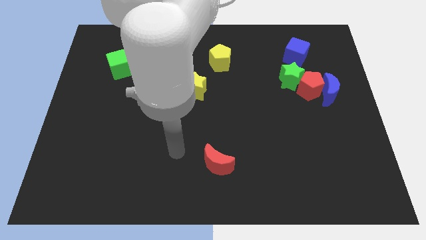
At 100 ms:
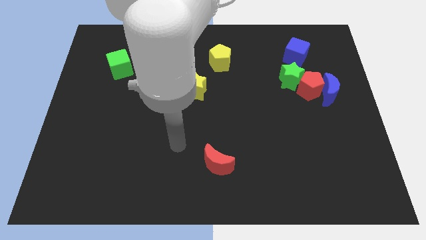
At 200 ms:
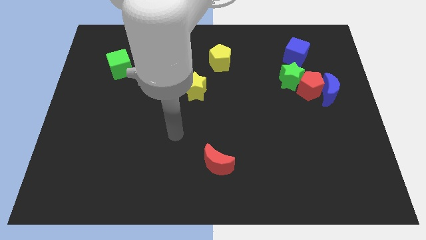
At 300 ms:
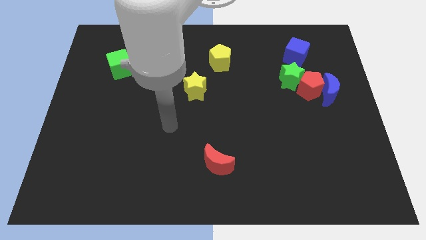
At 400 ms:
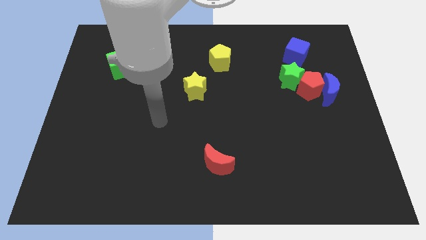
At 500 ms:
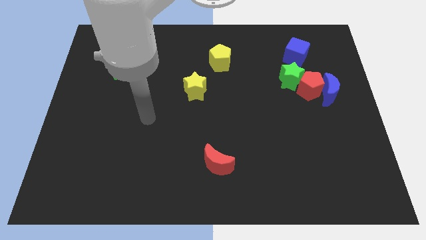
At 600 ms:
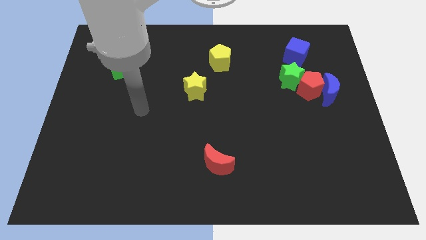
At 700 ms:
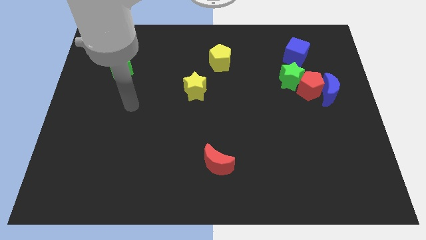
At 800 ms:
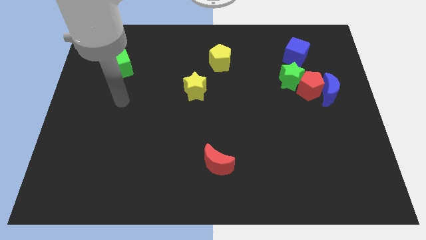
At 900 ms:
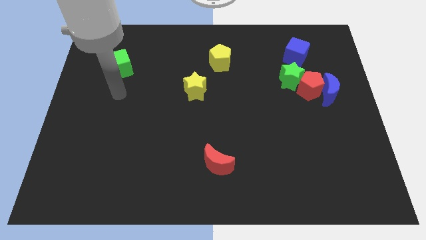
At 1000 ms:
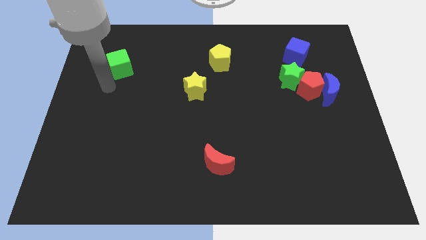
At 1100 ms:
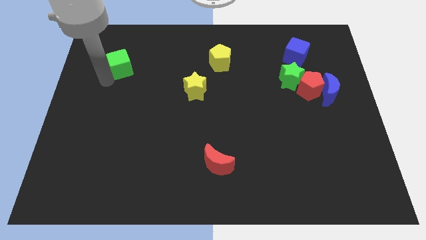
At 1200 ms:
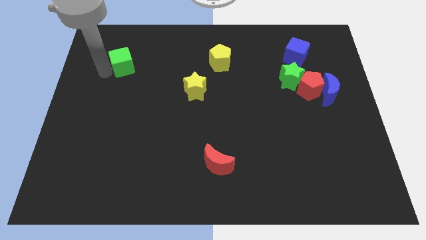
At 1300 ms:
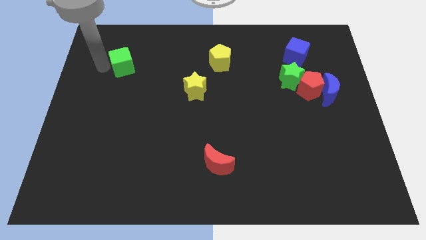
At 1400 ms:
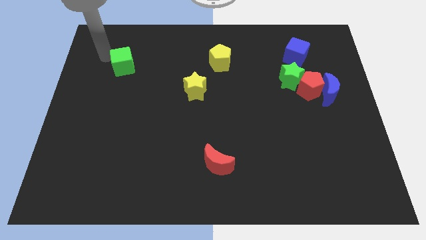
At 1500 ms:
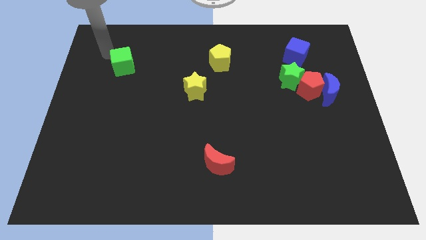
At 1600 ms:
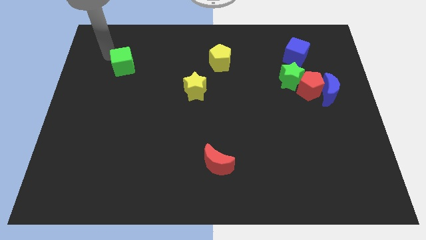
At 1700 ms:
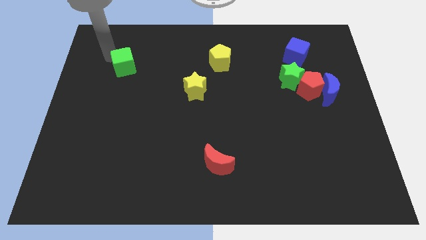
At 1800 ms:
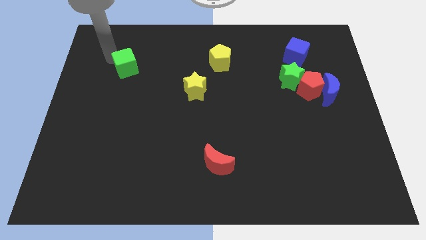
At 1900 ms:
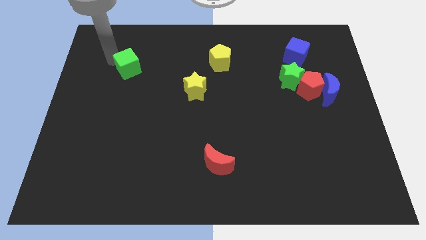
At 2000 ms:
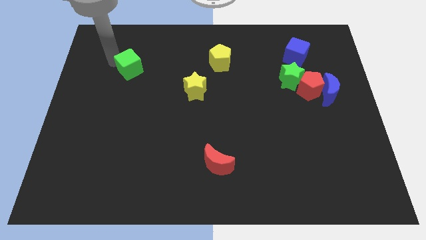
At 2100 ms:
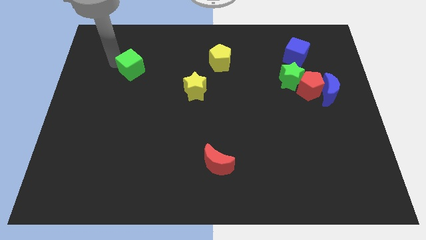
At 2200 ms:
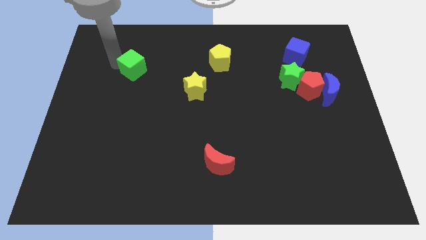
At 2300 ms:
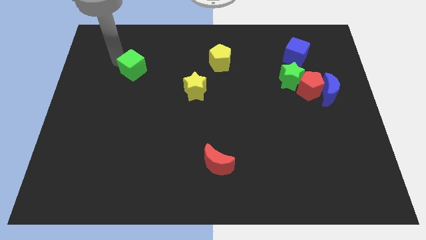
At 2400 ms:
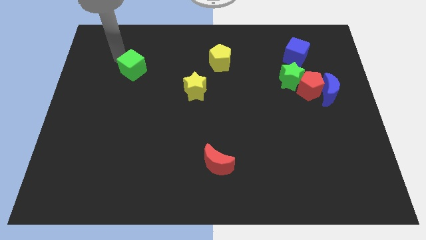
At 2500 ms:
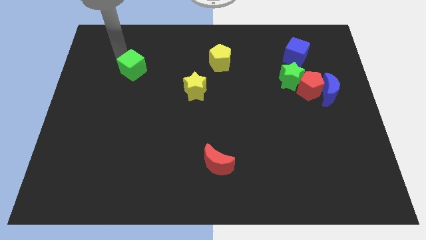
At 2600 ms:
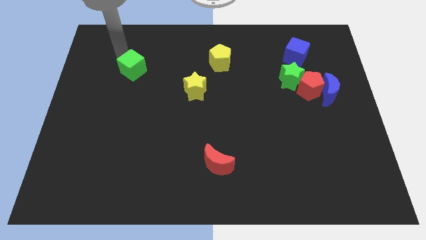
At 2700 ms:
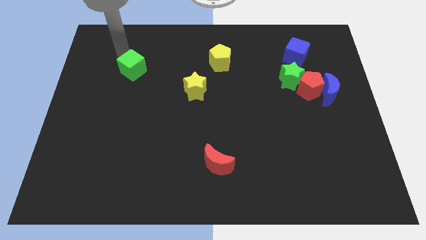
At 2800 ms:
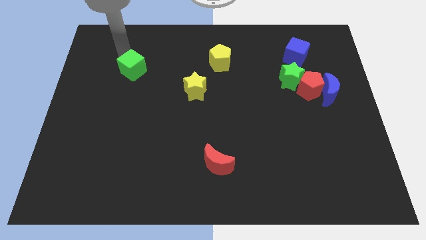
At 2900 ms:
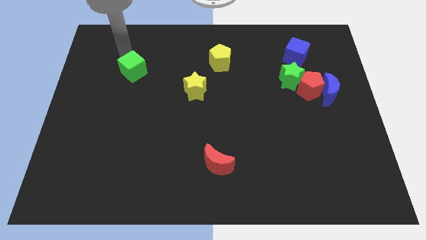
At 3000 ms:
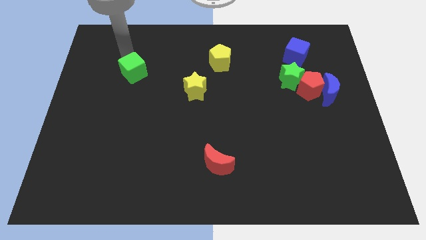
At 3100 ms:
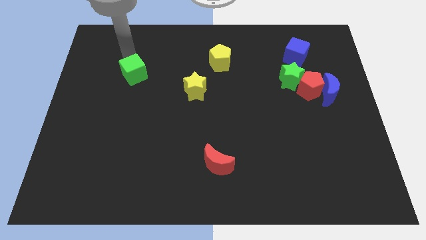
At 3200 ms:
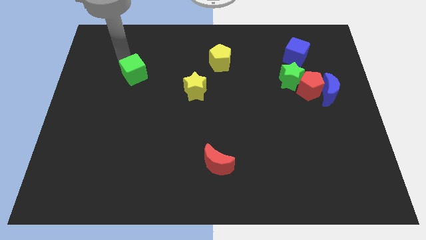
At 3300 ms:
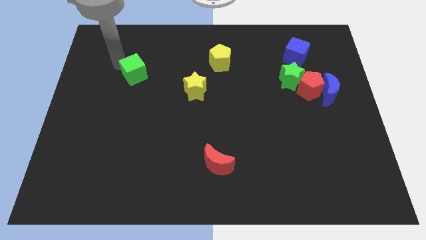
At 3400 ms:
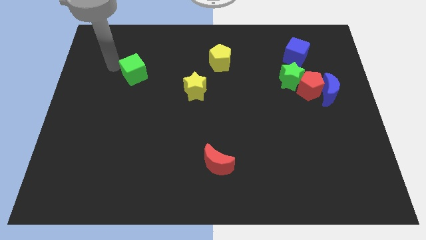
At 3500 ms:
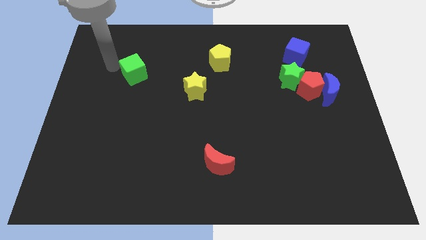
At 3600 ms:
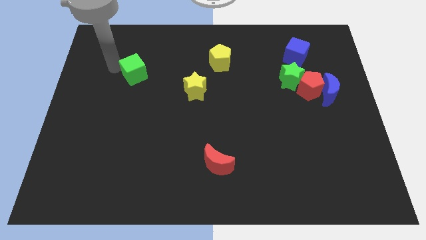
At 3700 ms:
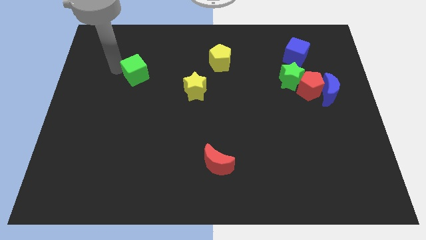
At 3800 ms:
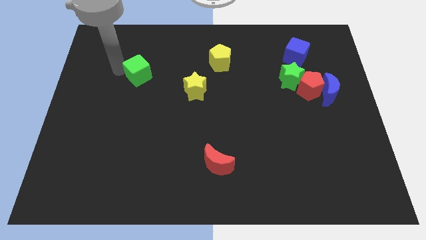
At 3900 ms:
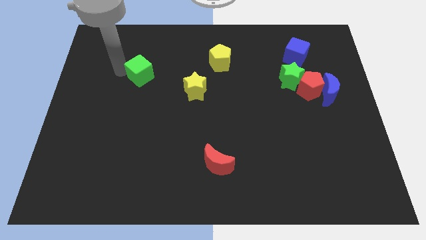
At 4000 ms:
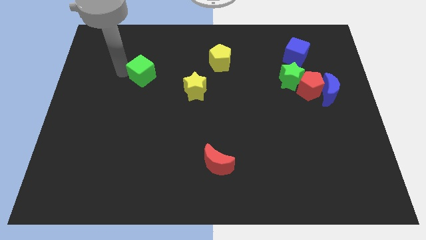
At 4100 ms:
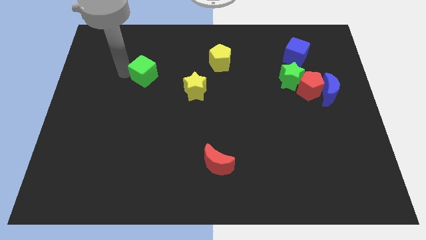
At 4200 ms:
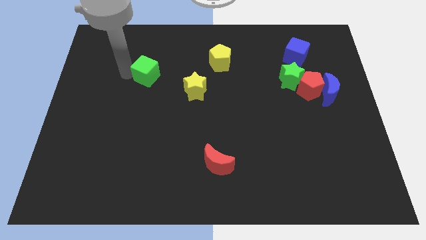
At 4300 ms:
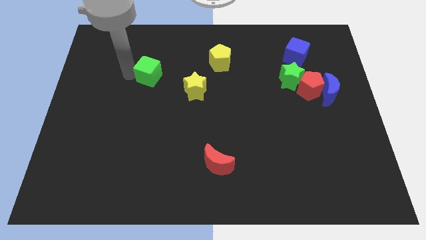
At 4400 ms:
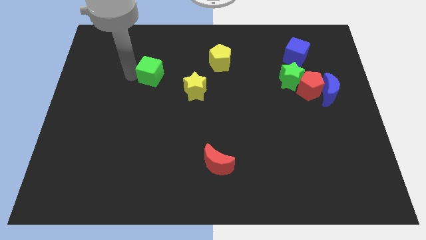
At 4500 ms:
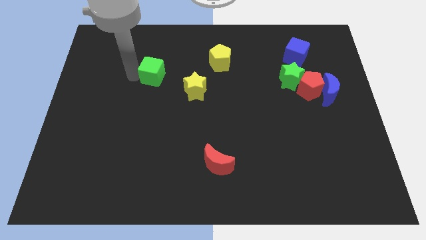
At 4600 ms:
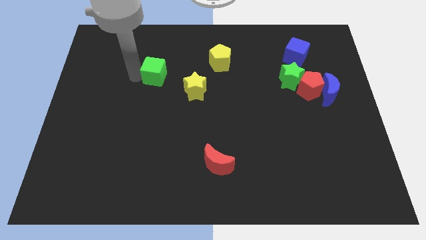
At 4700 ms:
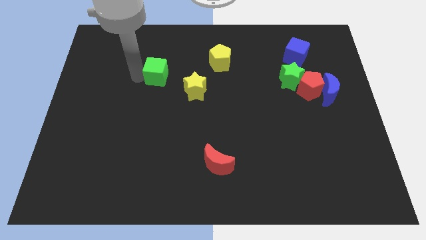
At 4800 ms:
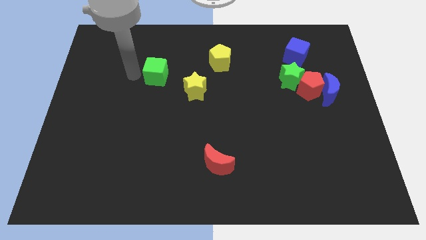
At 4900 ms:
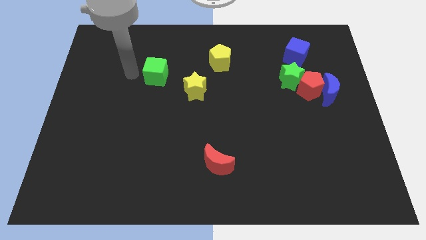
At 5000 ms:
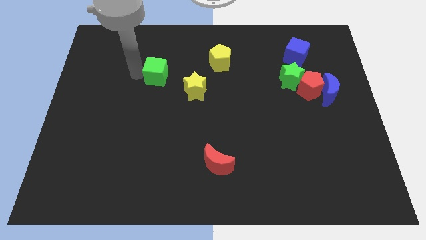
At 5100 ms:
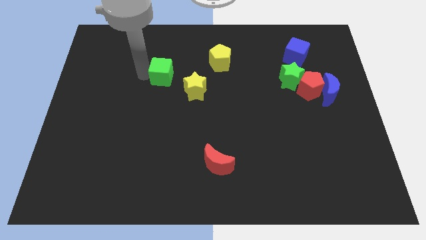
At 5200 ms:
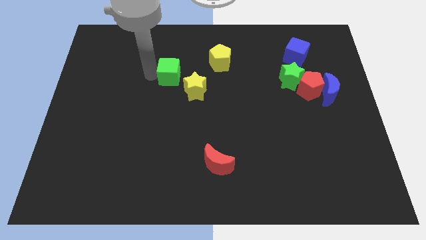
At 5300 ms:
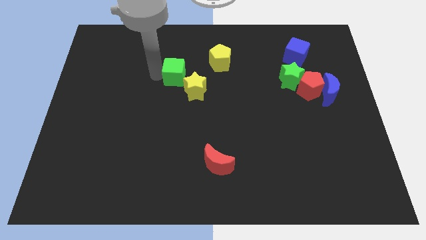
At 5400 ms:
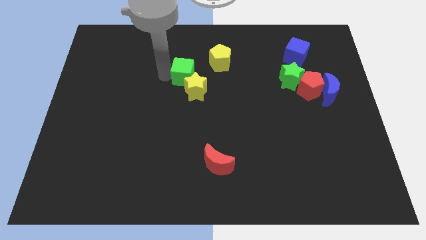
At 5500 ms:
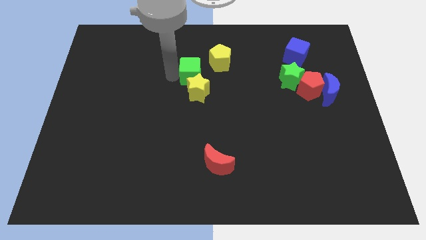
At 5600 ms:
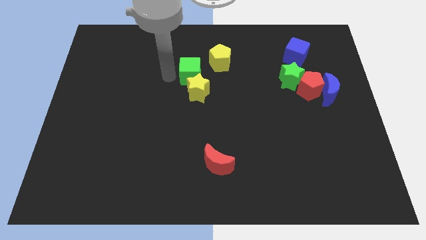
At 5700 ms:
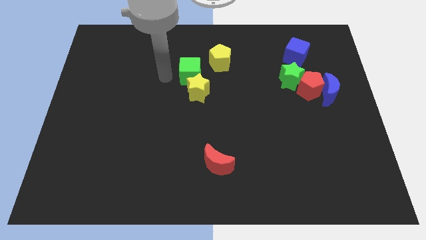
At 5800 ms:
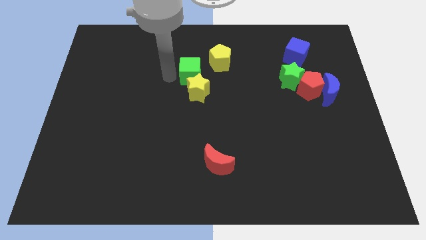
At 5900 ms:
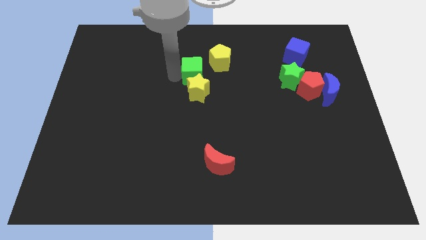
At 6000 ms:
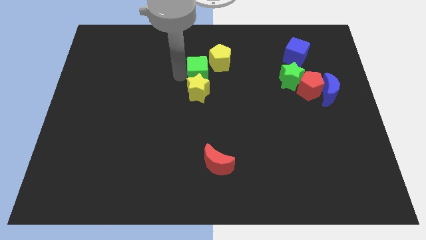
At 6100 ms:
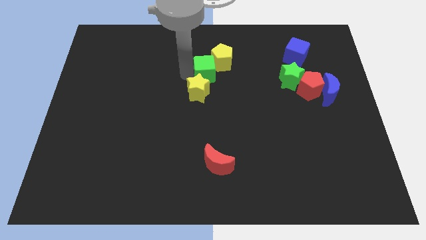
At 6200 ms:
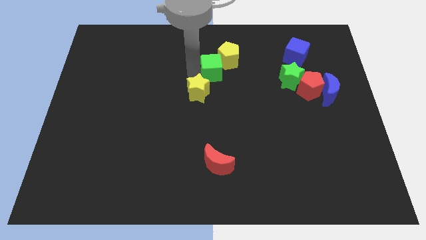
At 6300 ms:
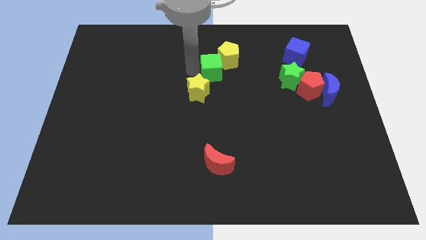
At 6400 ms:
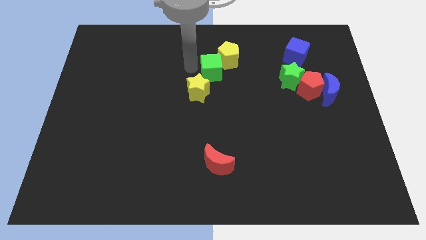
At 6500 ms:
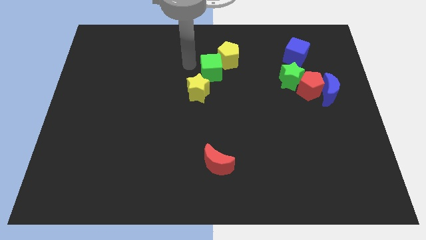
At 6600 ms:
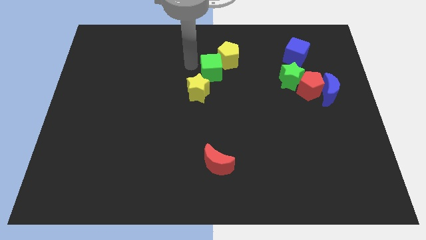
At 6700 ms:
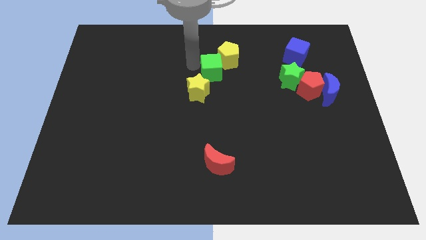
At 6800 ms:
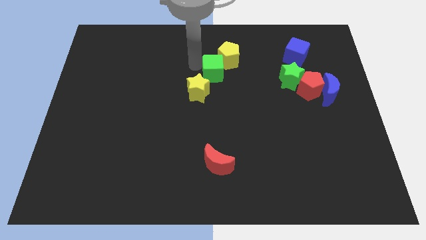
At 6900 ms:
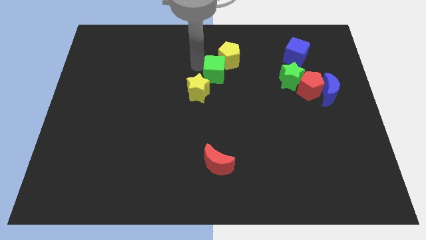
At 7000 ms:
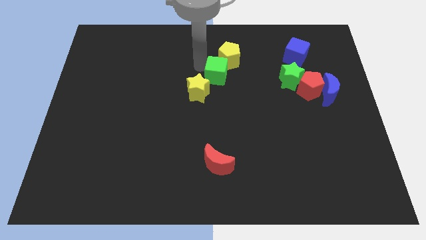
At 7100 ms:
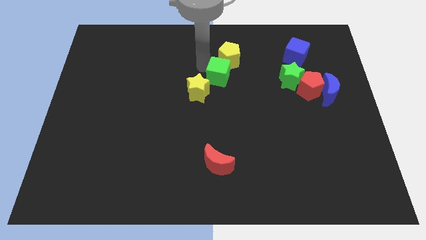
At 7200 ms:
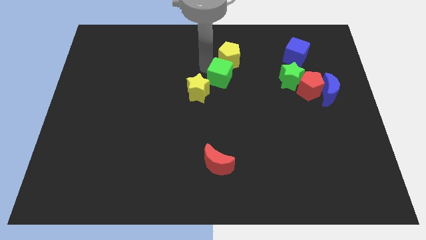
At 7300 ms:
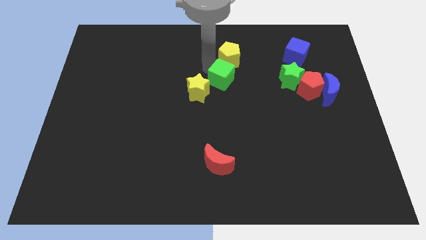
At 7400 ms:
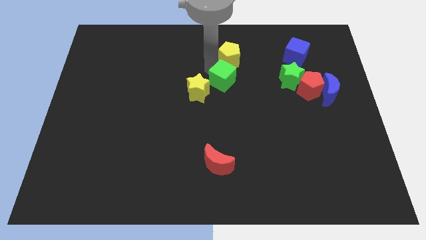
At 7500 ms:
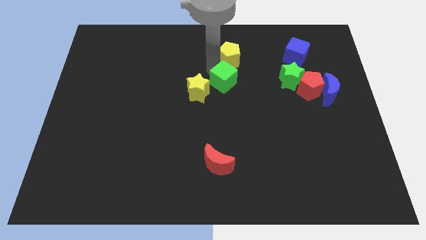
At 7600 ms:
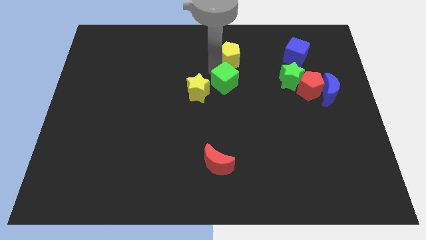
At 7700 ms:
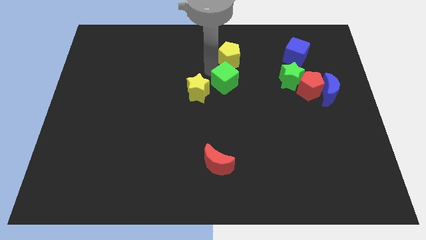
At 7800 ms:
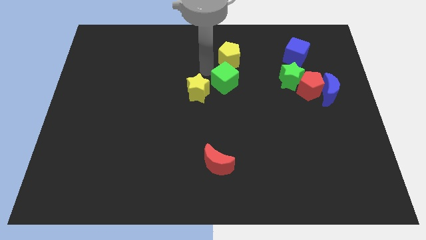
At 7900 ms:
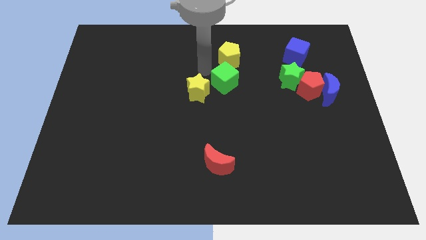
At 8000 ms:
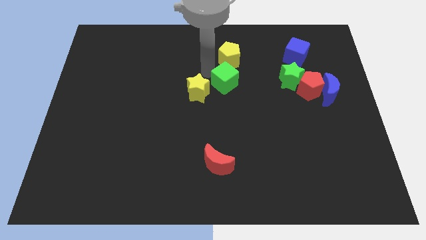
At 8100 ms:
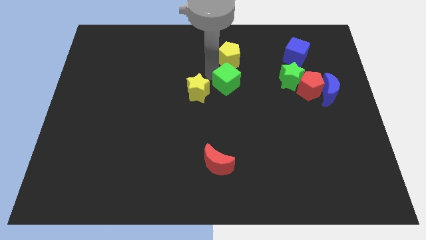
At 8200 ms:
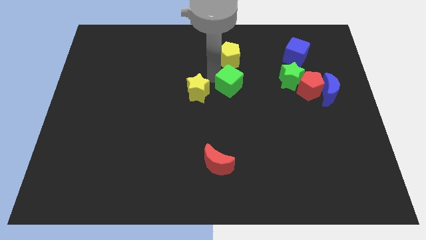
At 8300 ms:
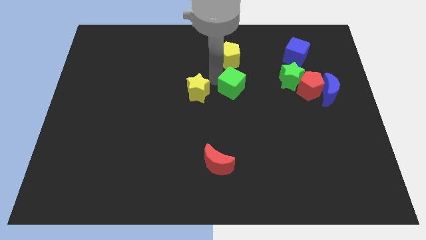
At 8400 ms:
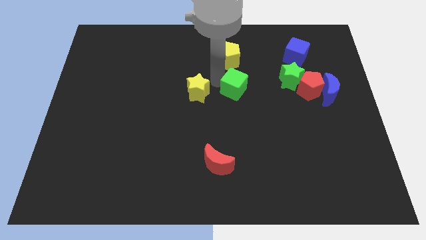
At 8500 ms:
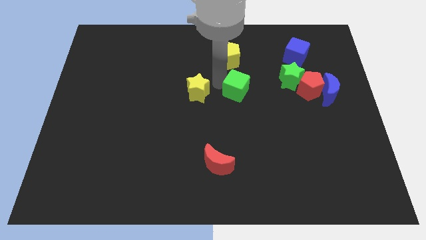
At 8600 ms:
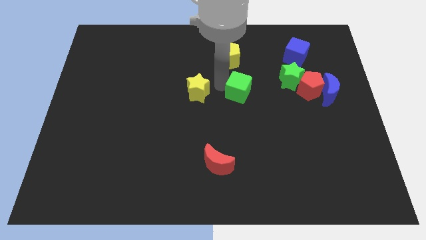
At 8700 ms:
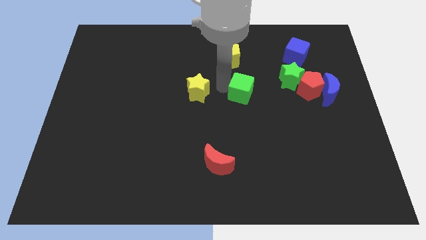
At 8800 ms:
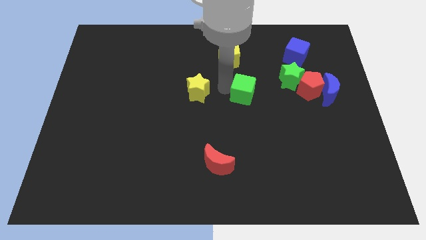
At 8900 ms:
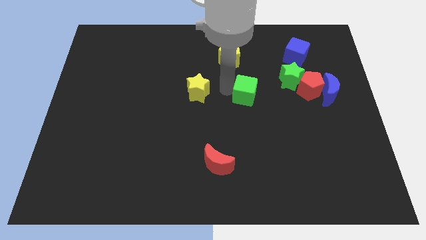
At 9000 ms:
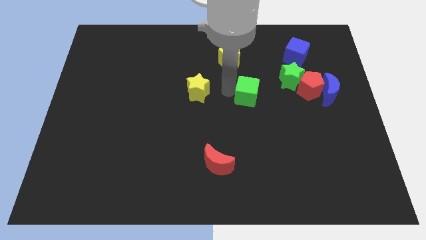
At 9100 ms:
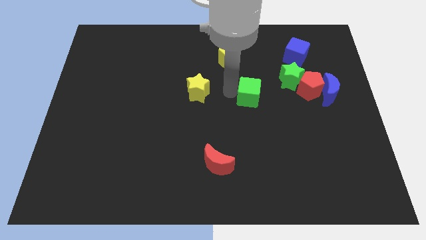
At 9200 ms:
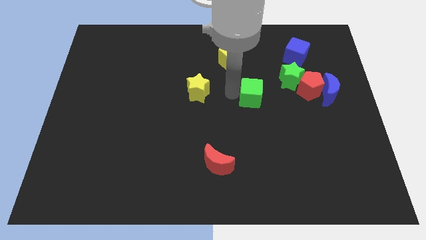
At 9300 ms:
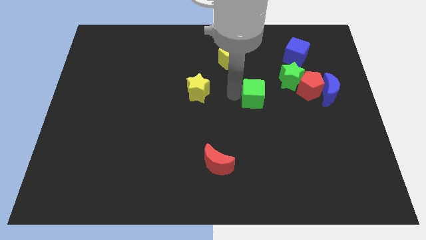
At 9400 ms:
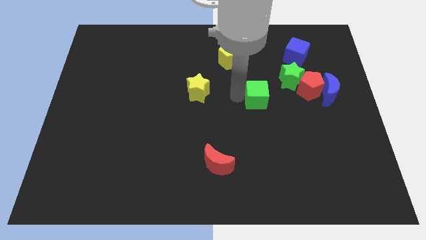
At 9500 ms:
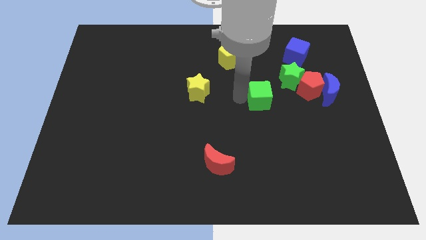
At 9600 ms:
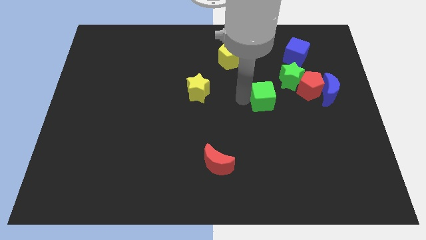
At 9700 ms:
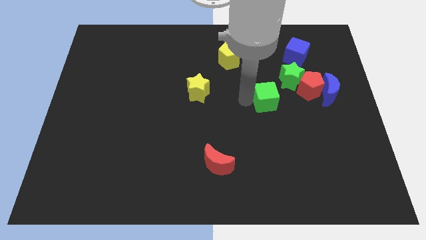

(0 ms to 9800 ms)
slide the green cube to the left side of the blue moon
